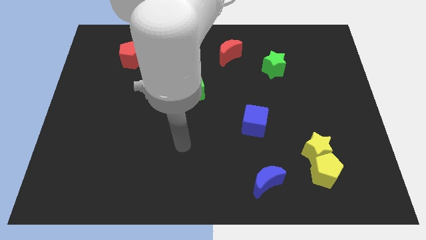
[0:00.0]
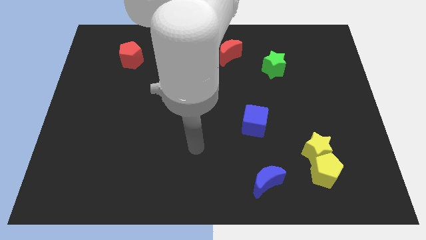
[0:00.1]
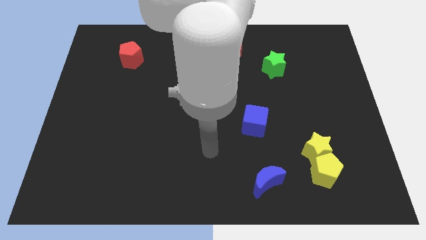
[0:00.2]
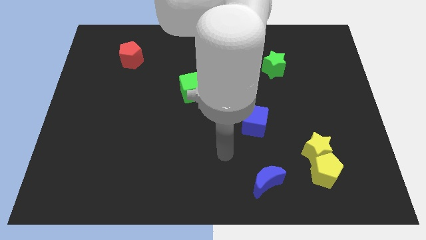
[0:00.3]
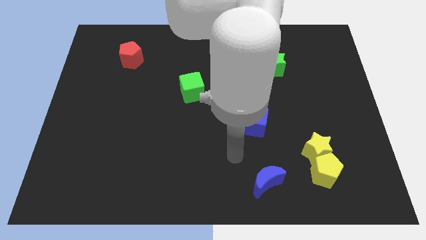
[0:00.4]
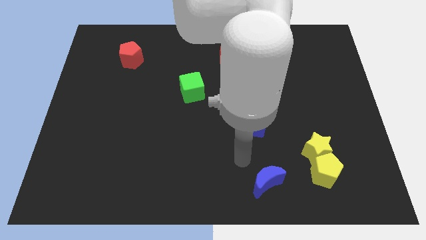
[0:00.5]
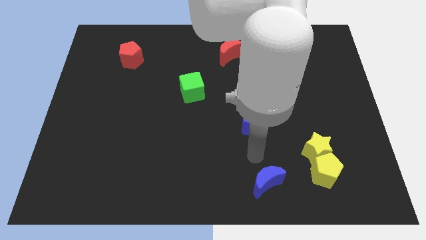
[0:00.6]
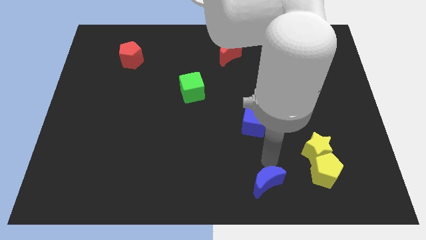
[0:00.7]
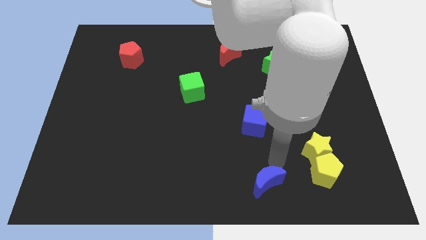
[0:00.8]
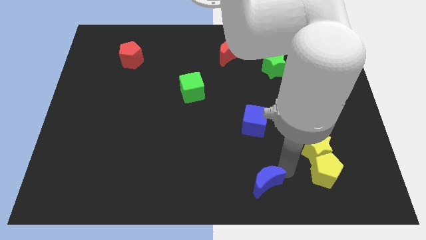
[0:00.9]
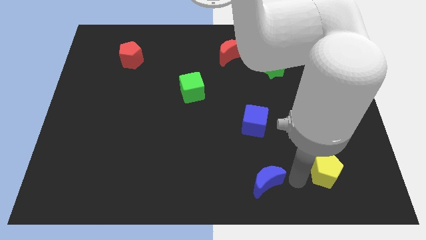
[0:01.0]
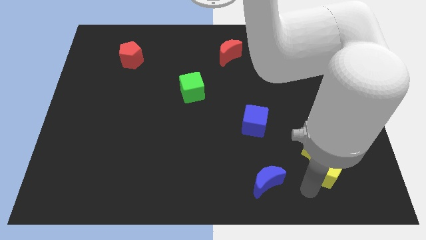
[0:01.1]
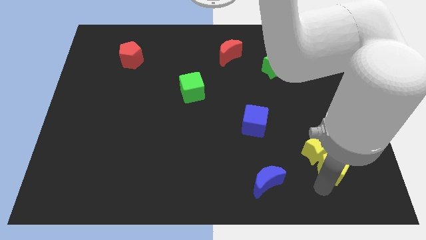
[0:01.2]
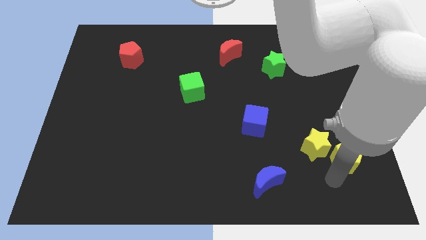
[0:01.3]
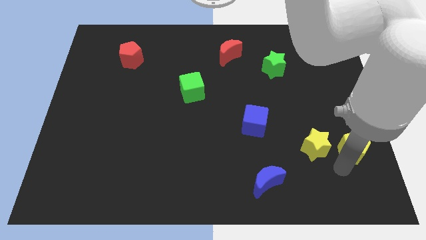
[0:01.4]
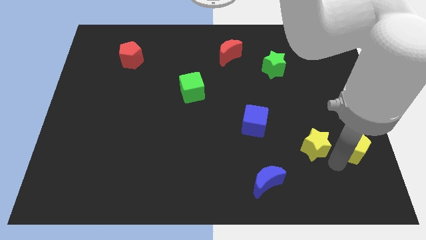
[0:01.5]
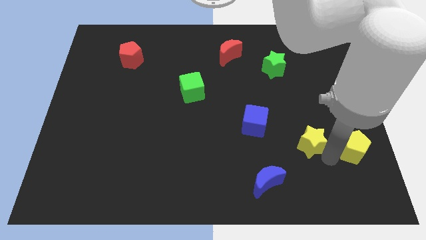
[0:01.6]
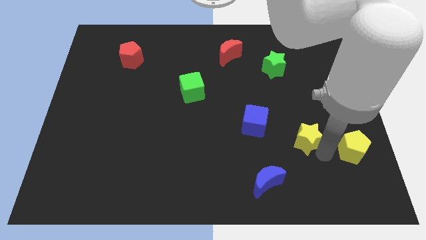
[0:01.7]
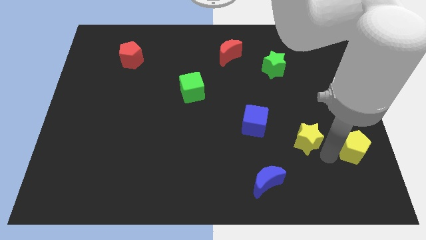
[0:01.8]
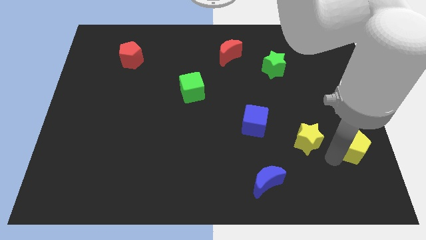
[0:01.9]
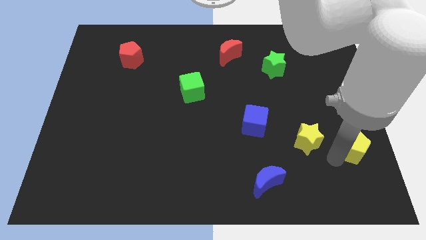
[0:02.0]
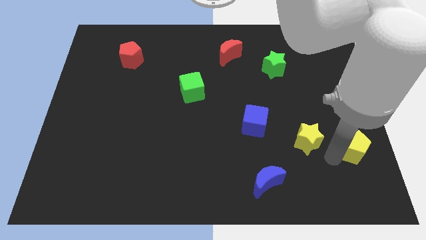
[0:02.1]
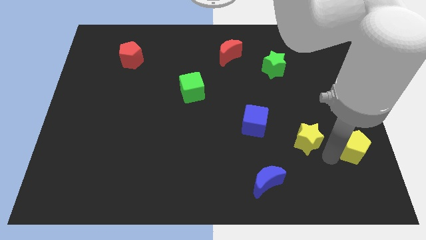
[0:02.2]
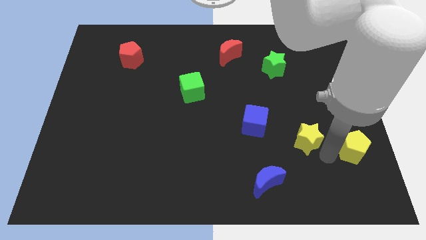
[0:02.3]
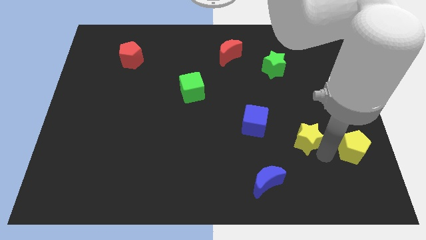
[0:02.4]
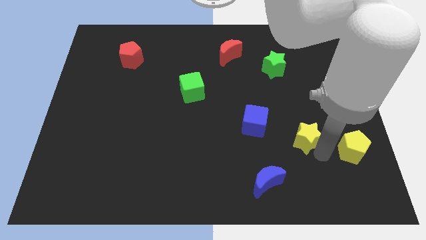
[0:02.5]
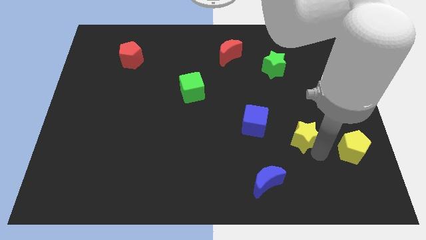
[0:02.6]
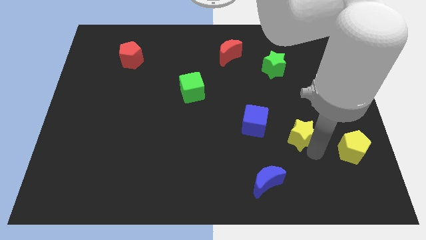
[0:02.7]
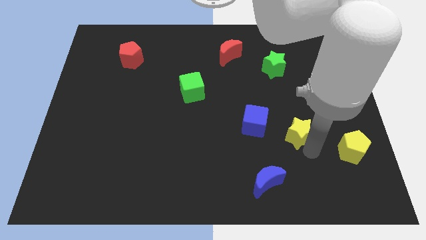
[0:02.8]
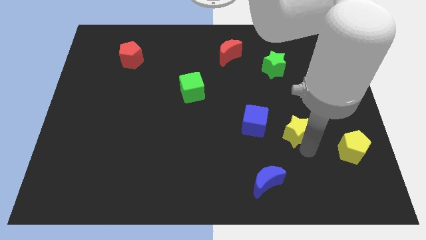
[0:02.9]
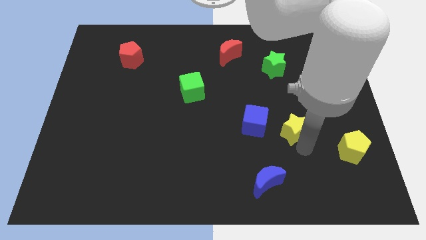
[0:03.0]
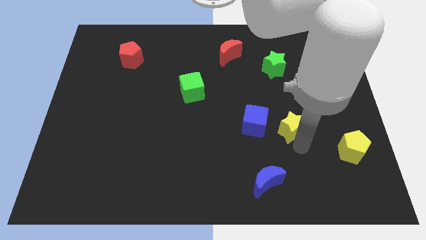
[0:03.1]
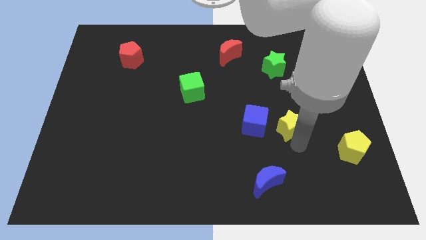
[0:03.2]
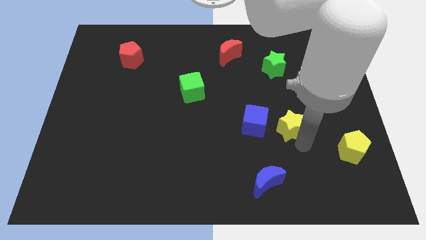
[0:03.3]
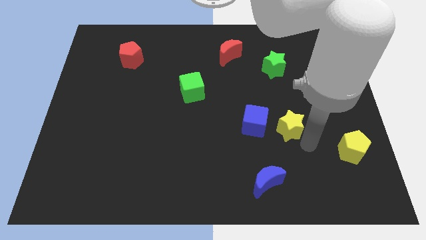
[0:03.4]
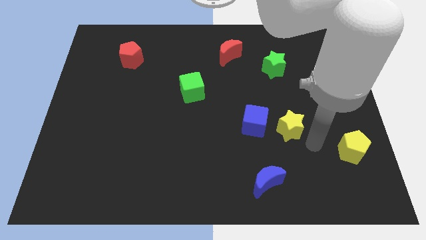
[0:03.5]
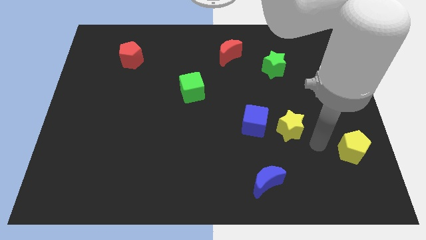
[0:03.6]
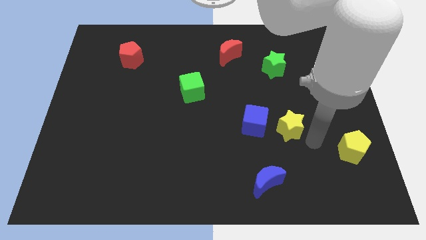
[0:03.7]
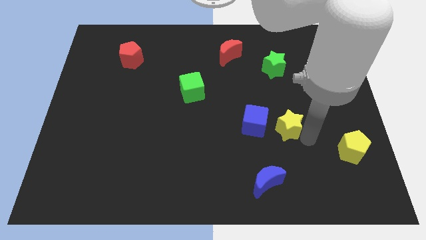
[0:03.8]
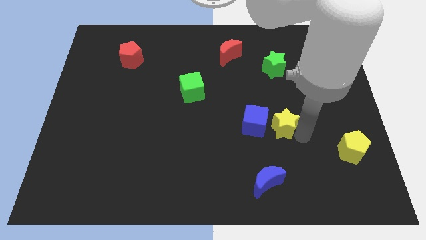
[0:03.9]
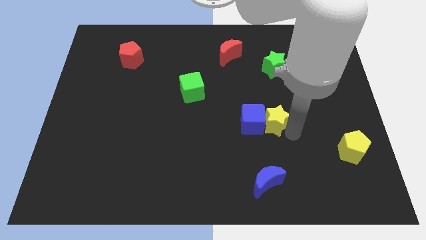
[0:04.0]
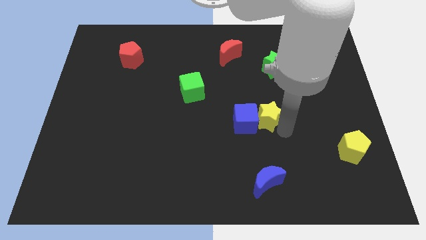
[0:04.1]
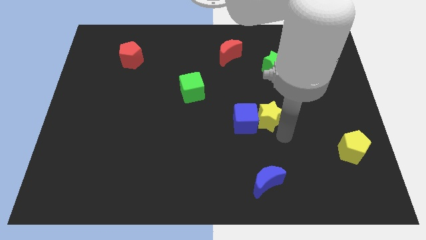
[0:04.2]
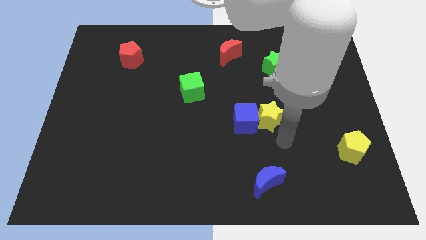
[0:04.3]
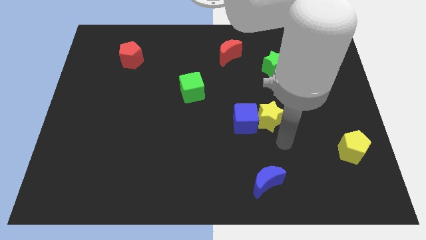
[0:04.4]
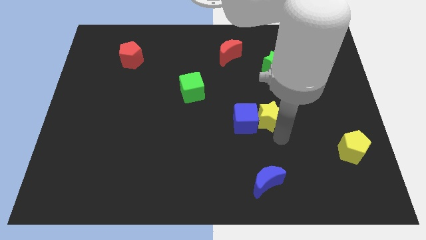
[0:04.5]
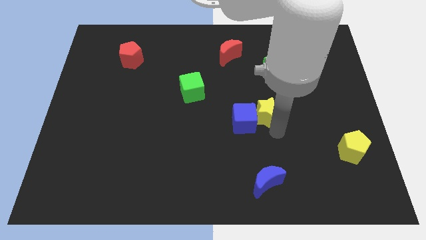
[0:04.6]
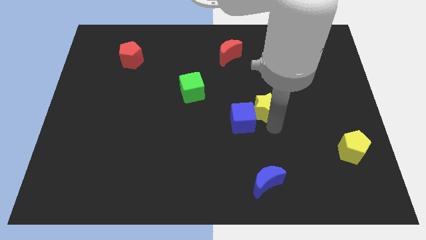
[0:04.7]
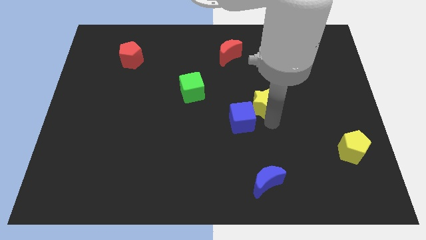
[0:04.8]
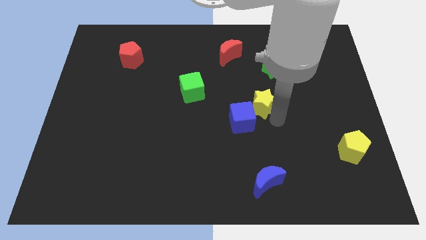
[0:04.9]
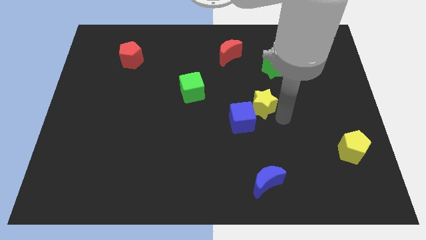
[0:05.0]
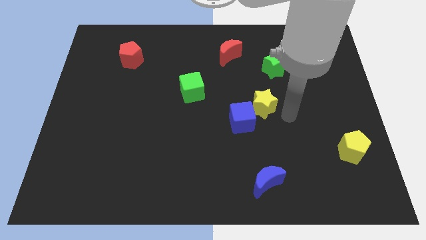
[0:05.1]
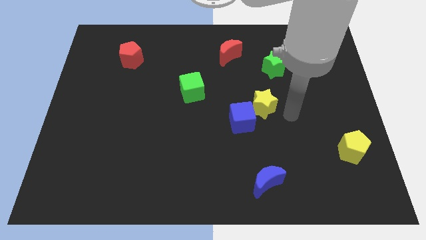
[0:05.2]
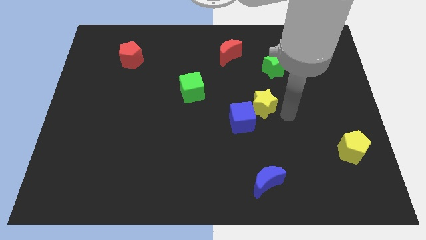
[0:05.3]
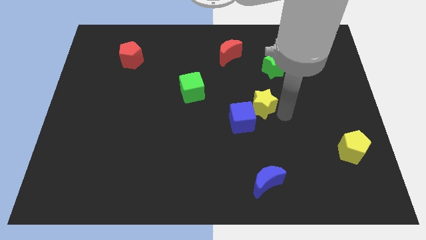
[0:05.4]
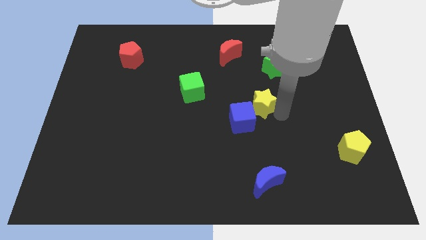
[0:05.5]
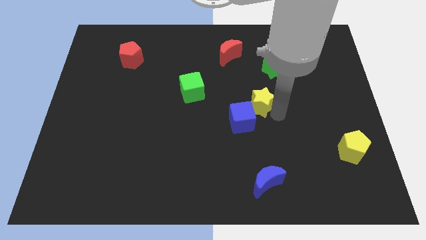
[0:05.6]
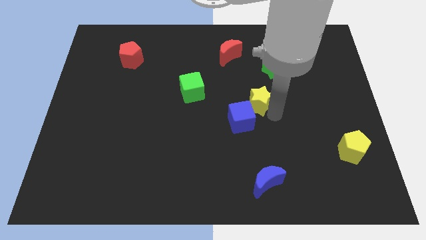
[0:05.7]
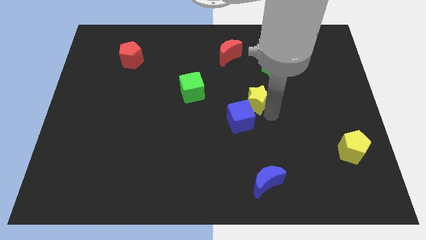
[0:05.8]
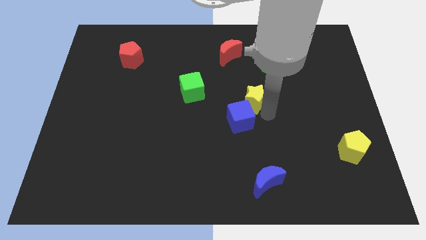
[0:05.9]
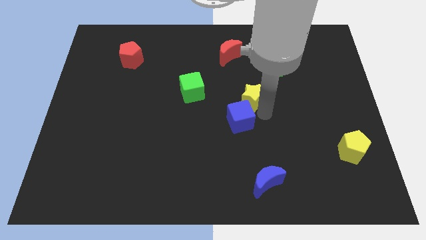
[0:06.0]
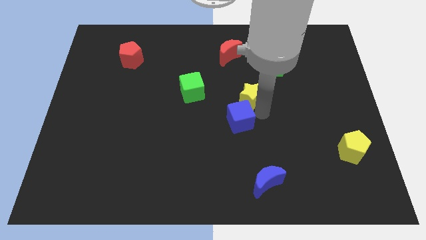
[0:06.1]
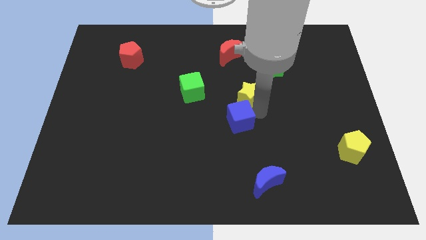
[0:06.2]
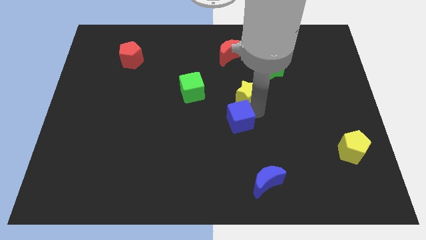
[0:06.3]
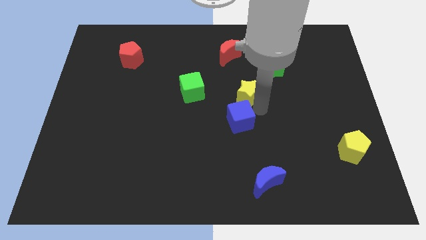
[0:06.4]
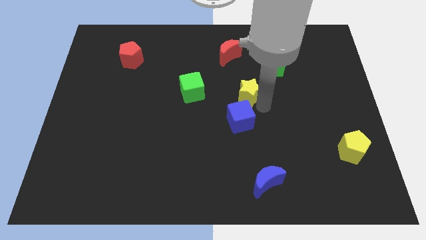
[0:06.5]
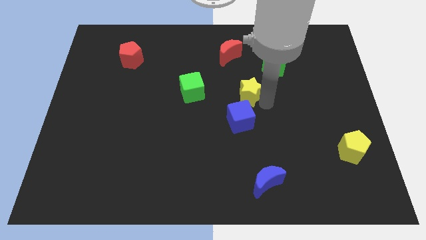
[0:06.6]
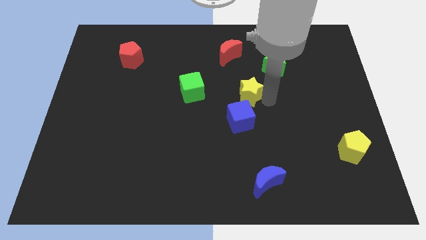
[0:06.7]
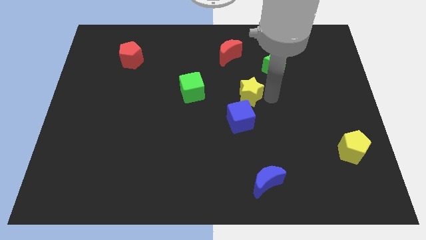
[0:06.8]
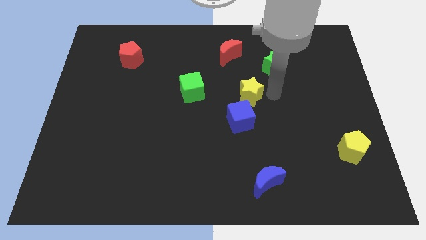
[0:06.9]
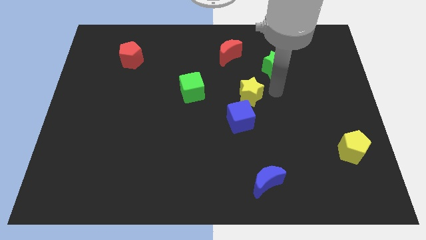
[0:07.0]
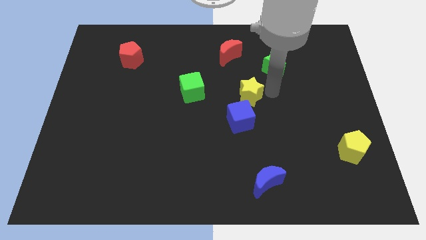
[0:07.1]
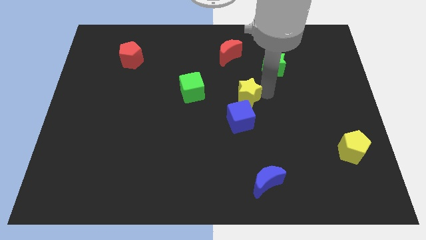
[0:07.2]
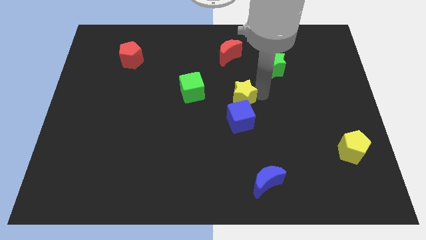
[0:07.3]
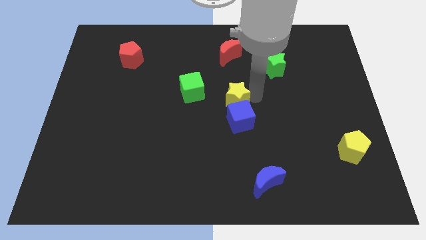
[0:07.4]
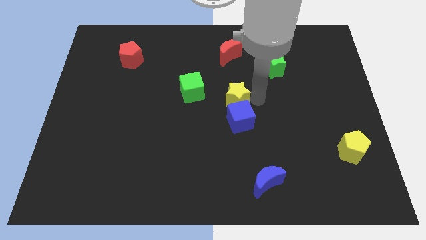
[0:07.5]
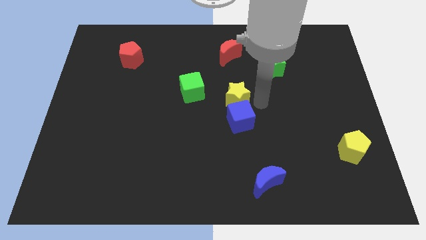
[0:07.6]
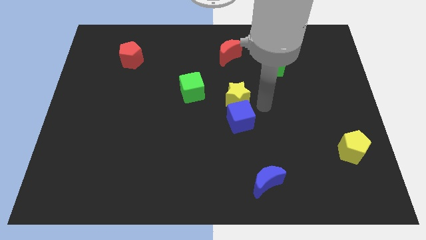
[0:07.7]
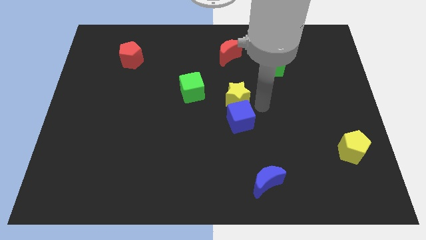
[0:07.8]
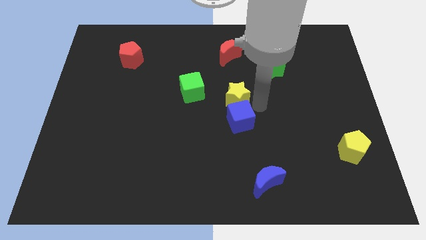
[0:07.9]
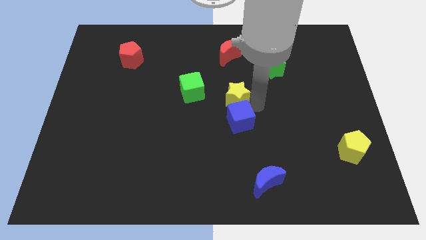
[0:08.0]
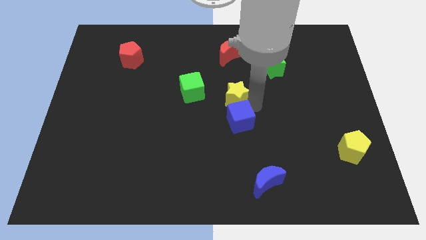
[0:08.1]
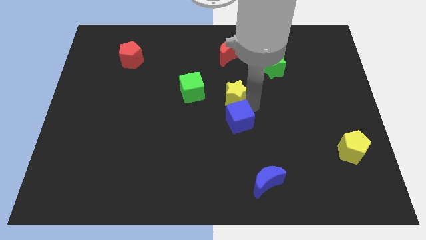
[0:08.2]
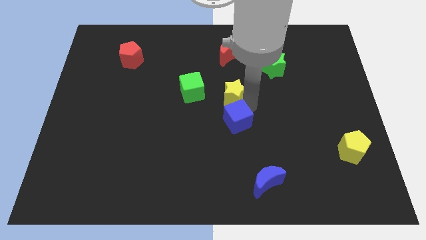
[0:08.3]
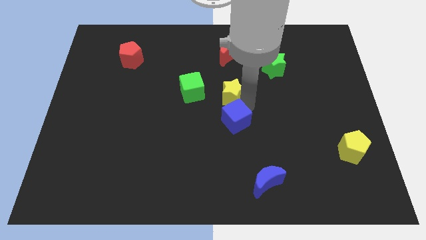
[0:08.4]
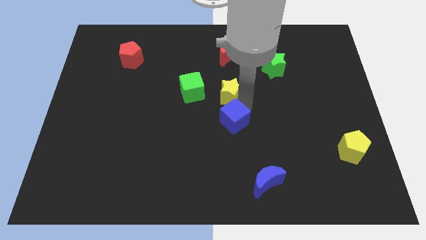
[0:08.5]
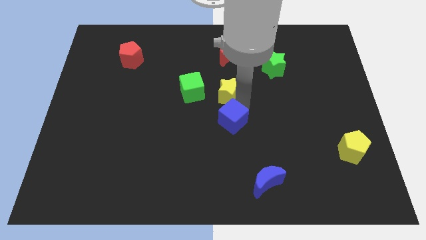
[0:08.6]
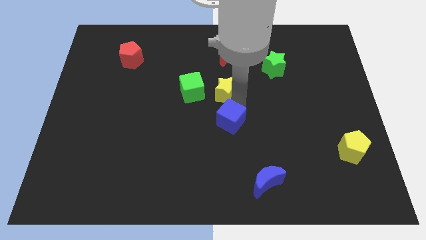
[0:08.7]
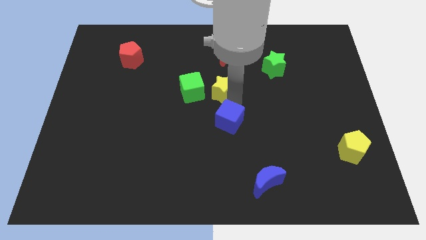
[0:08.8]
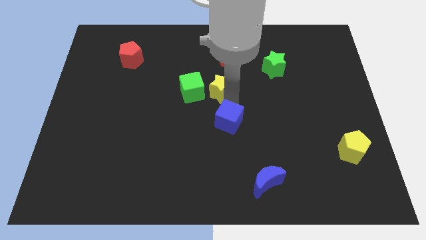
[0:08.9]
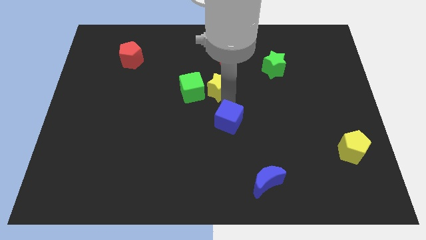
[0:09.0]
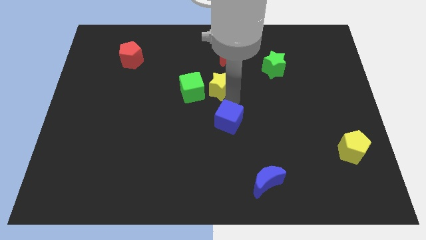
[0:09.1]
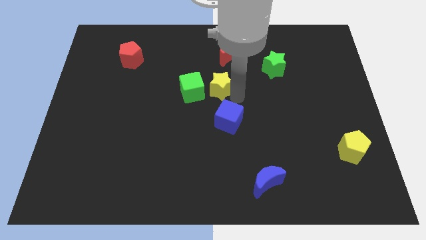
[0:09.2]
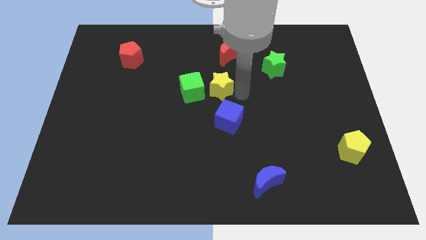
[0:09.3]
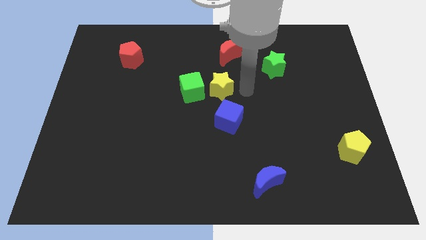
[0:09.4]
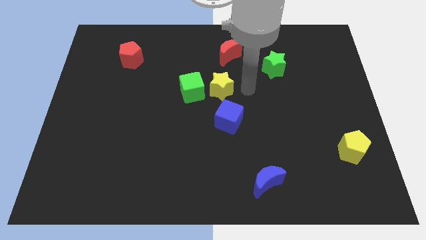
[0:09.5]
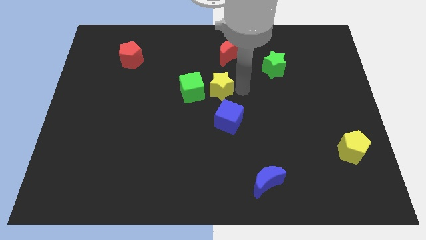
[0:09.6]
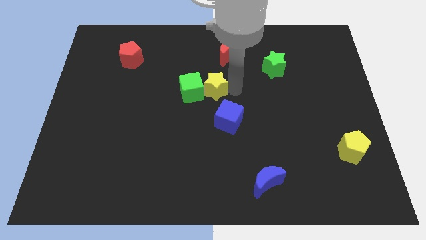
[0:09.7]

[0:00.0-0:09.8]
slide the yellow star to the green cube
